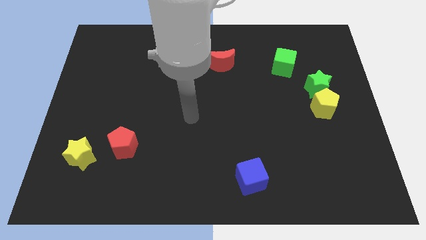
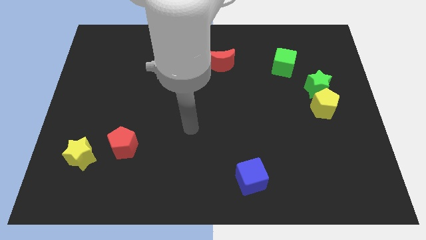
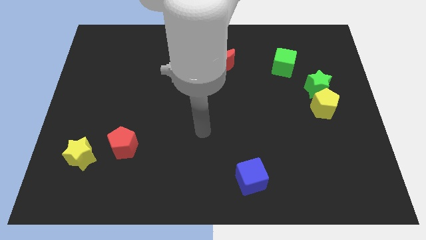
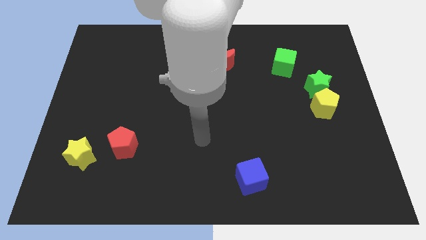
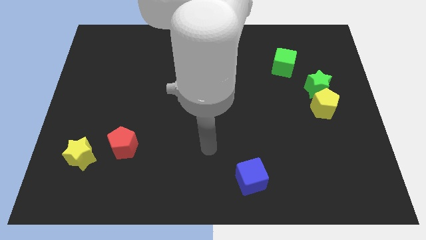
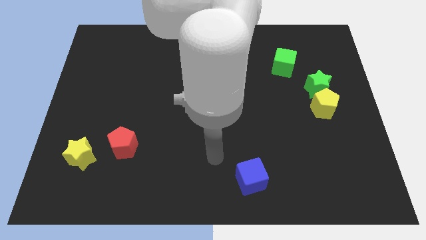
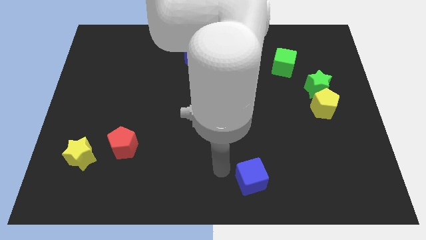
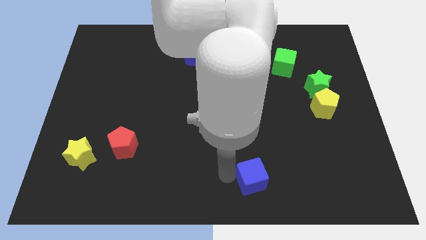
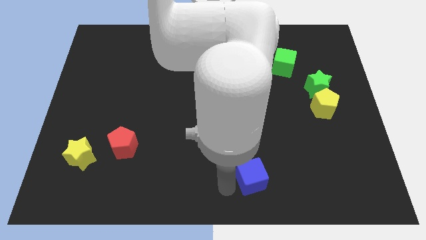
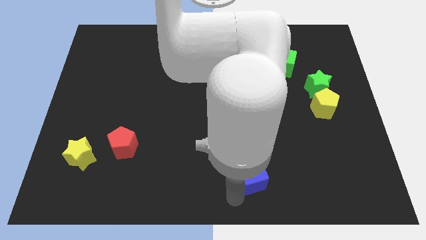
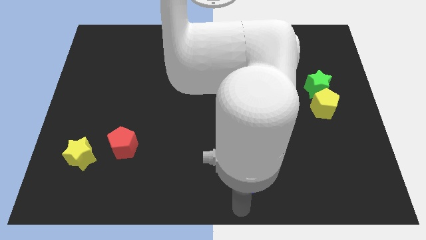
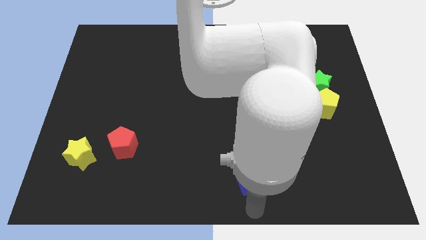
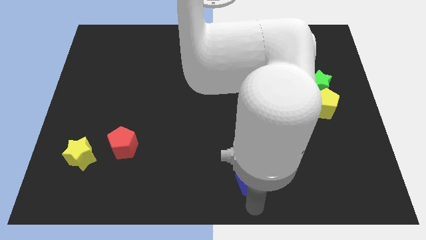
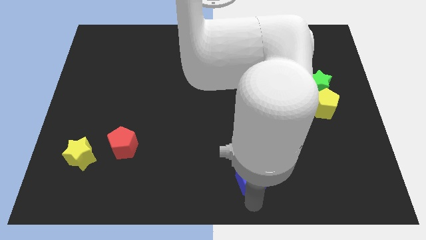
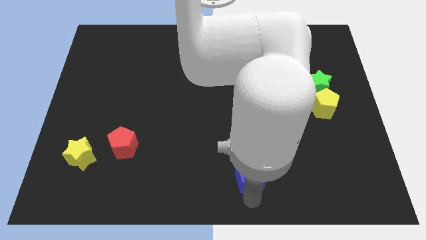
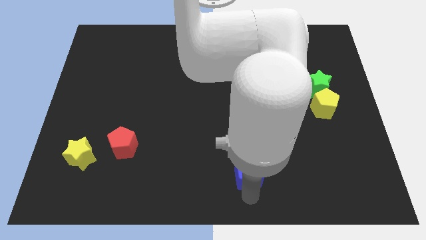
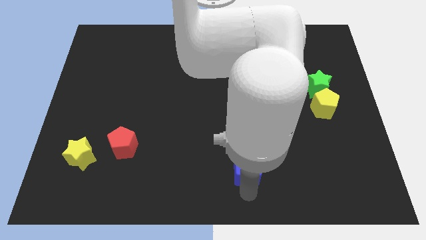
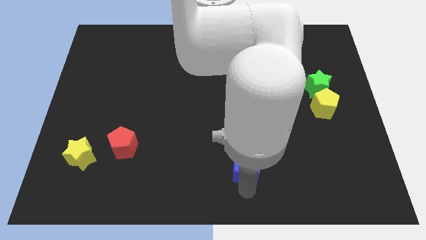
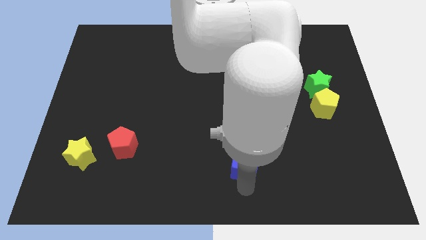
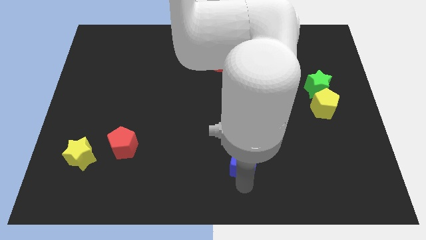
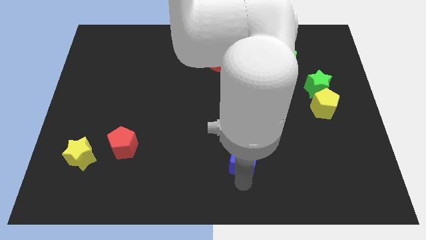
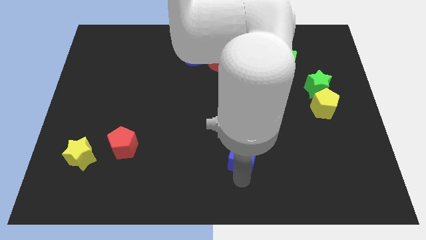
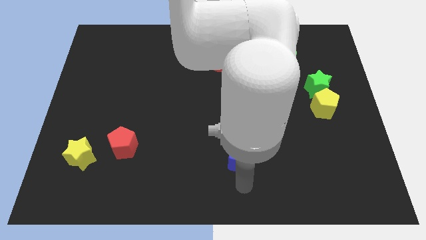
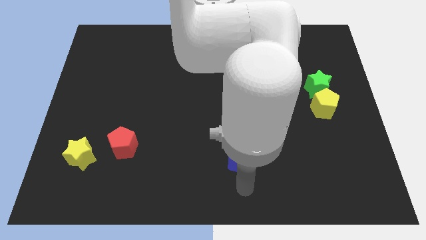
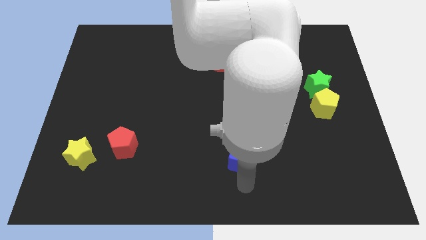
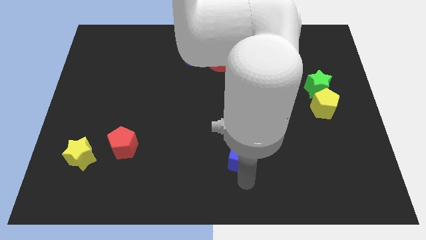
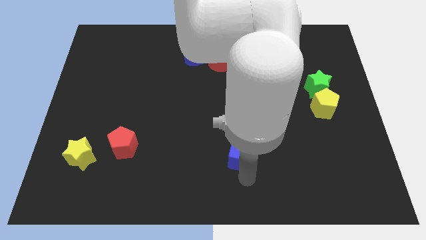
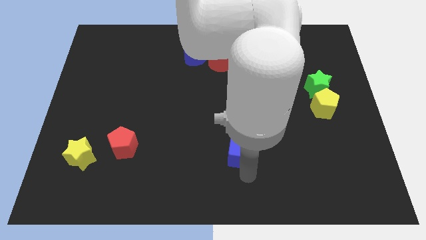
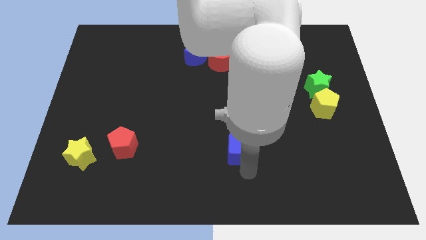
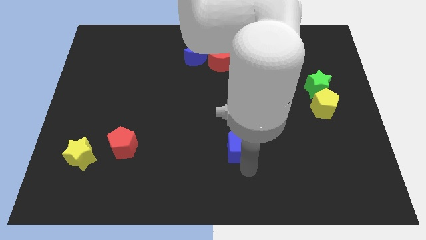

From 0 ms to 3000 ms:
slightly push the blue cube up

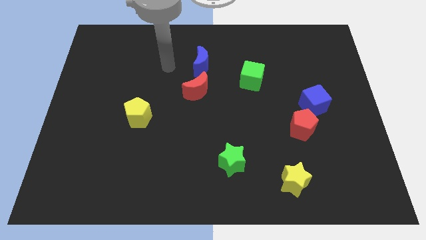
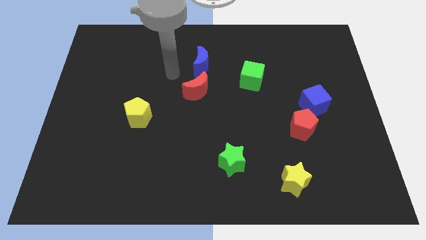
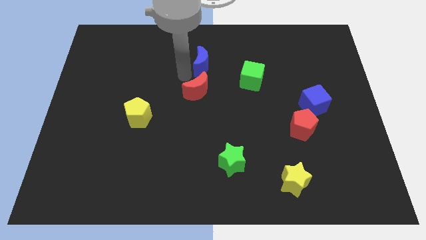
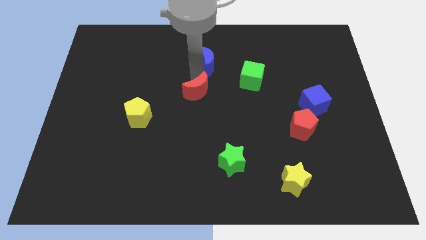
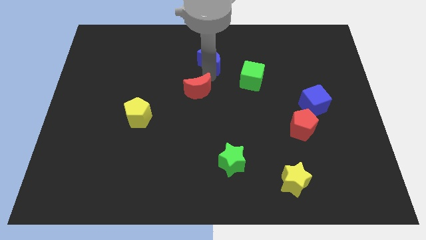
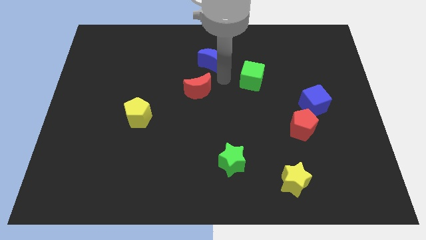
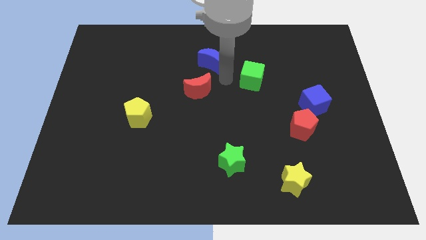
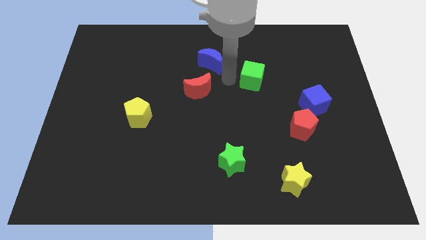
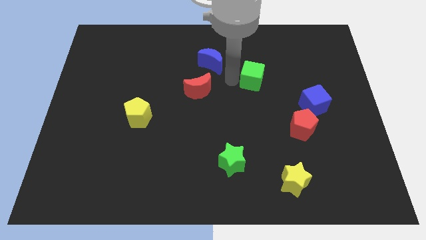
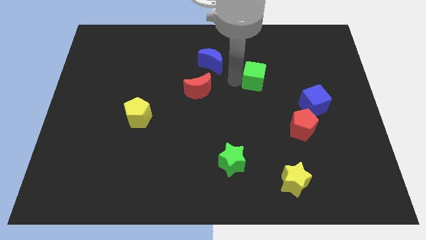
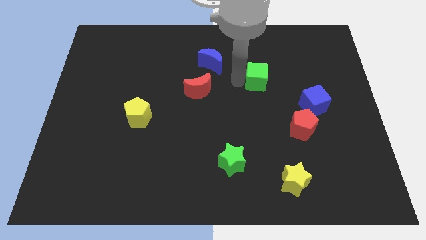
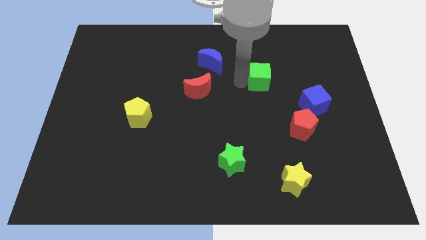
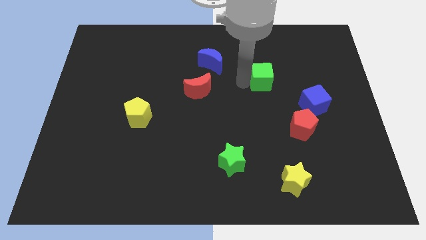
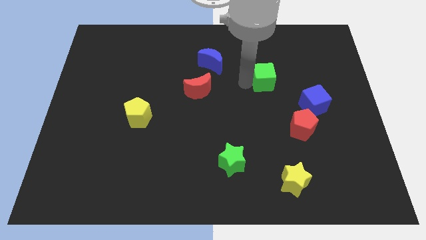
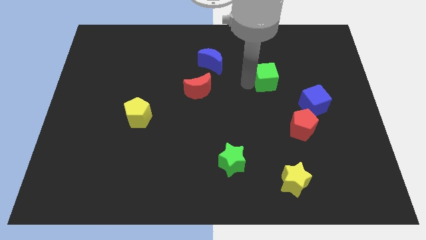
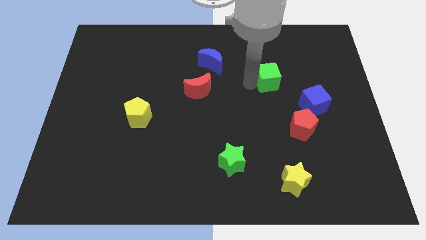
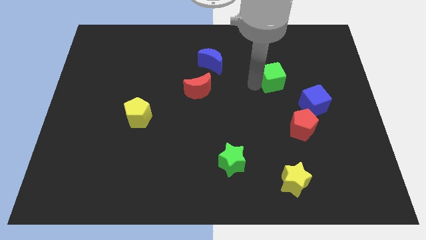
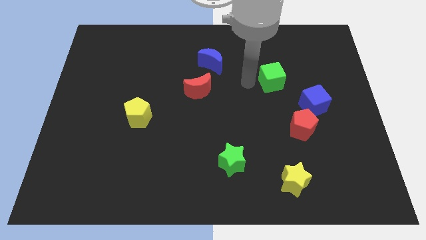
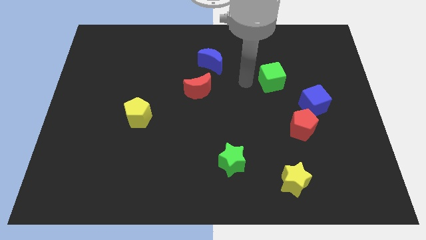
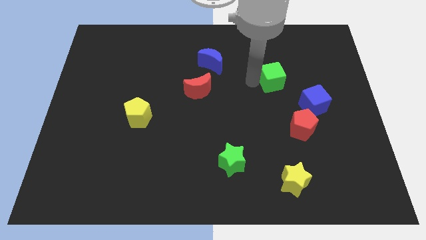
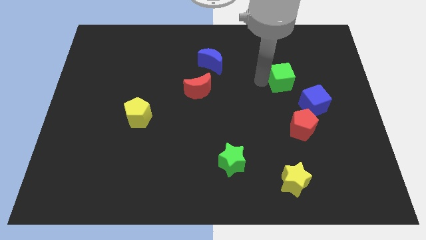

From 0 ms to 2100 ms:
slightly push the green cube right

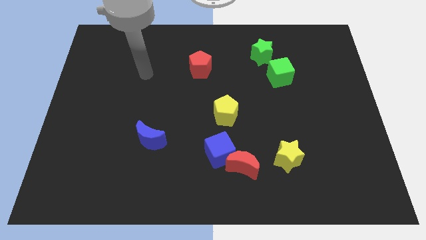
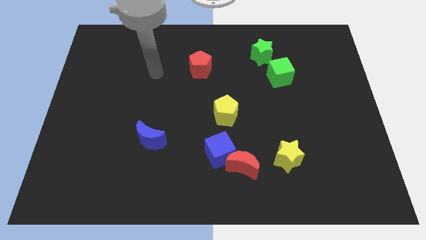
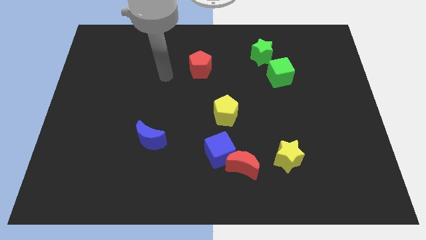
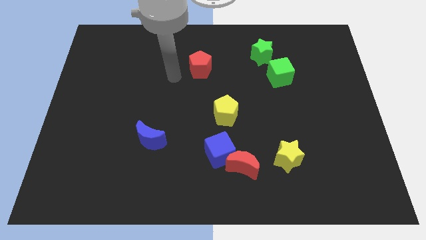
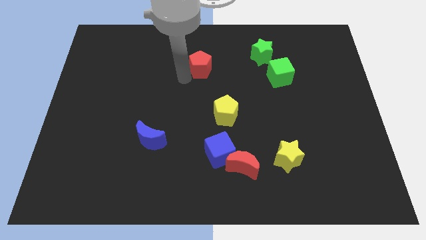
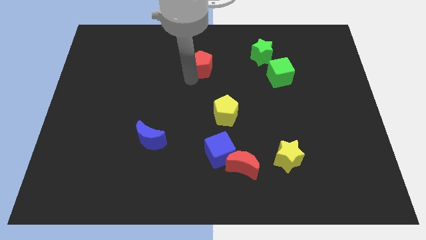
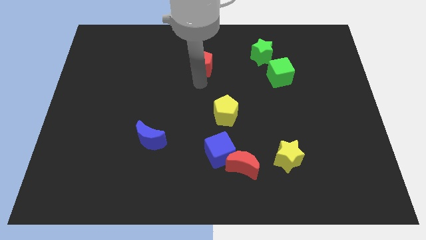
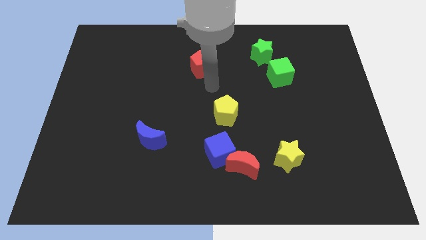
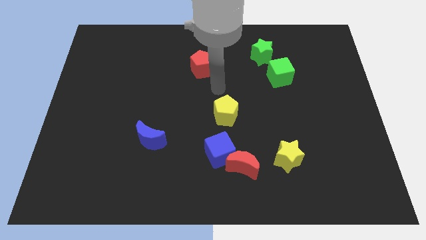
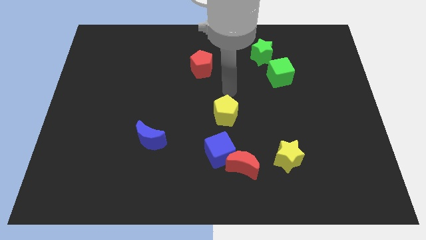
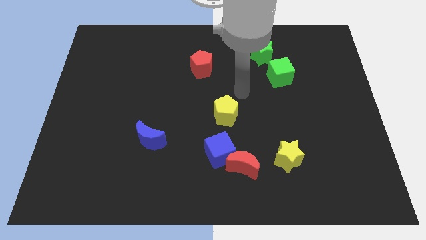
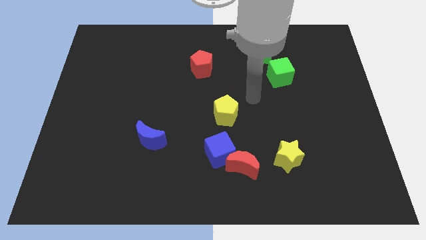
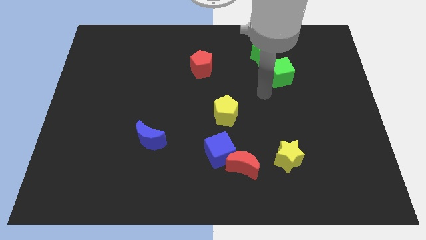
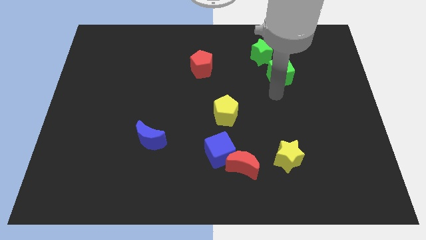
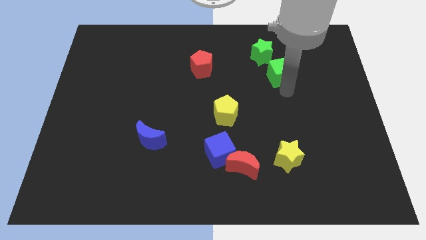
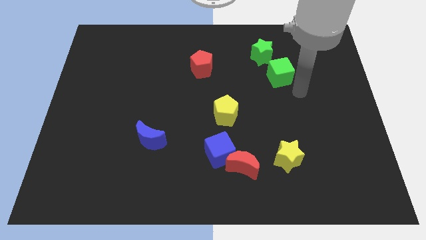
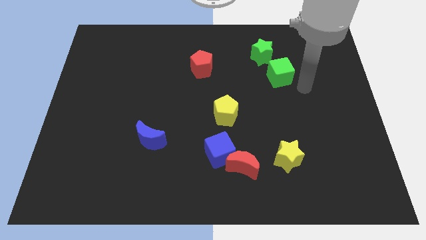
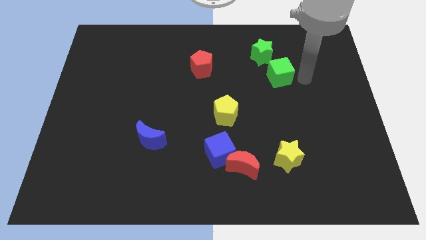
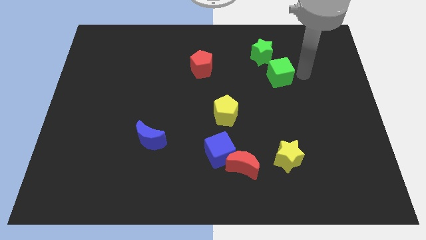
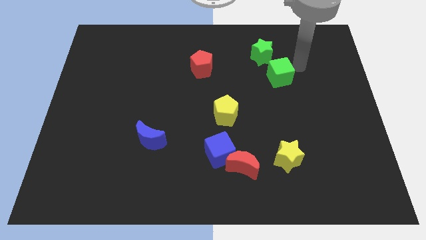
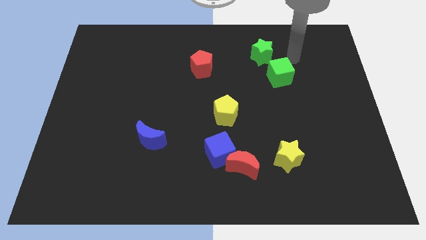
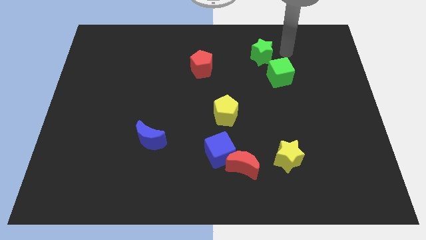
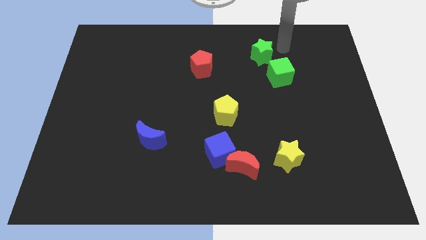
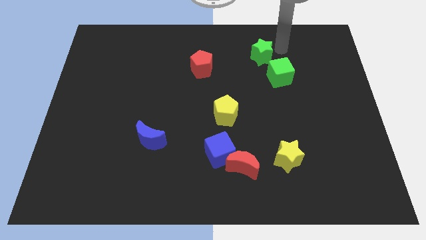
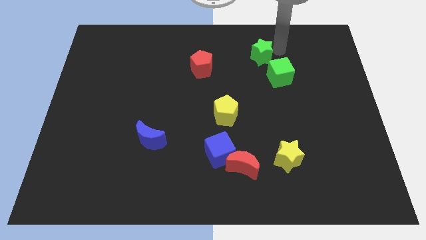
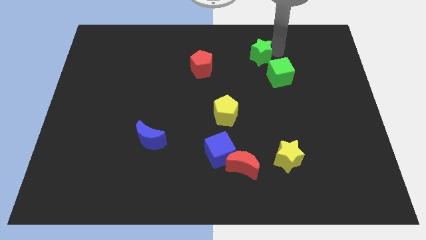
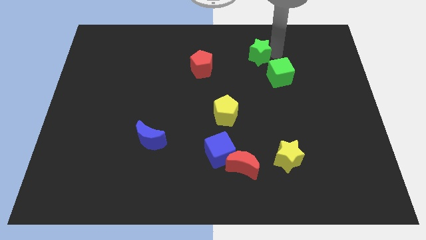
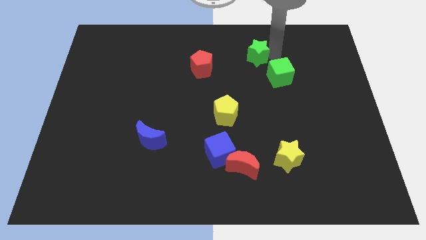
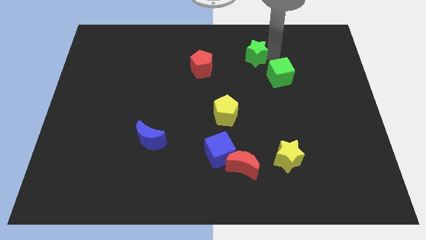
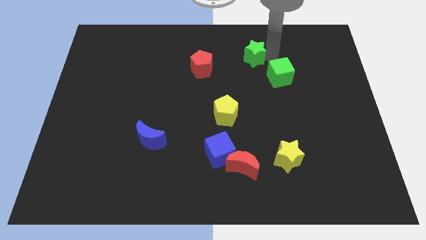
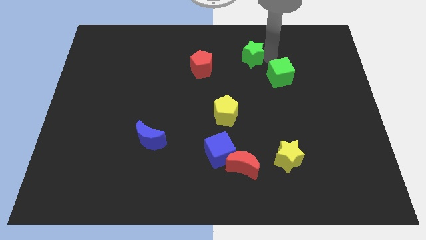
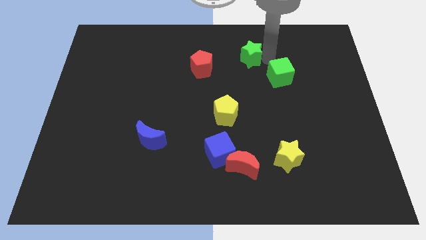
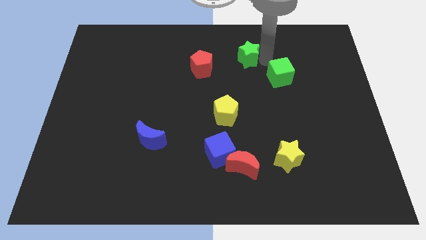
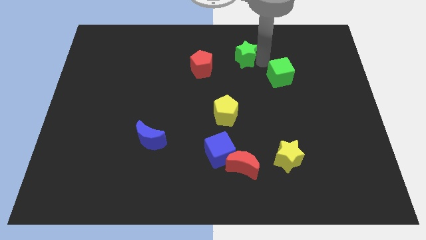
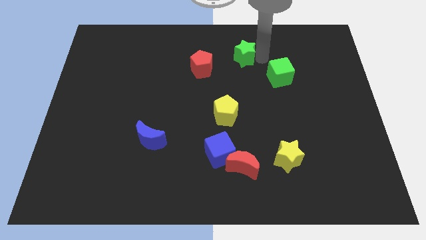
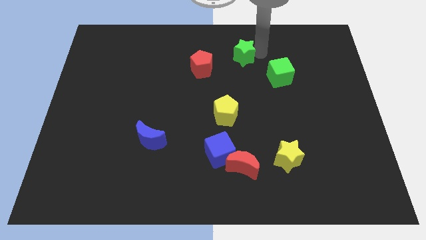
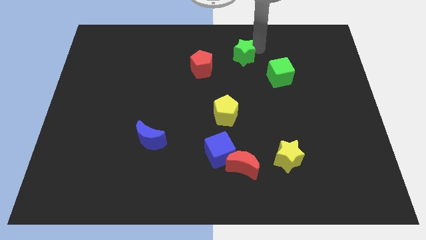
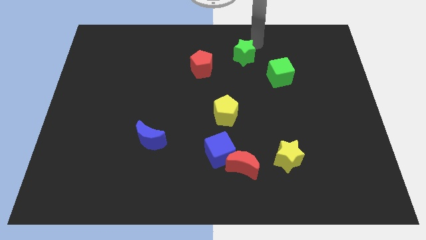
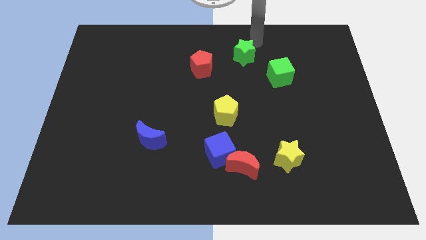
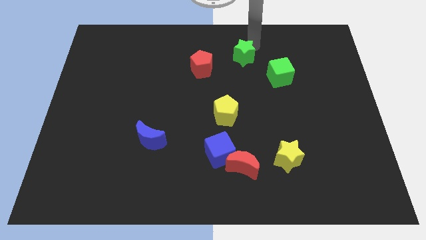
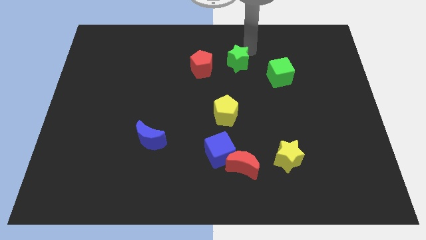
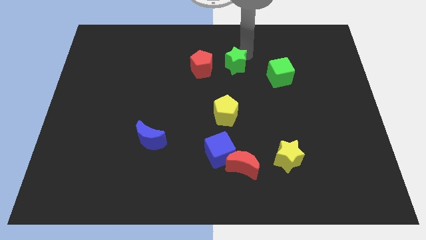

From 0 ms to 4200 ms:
move the green star downwards and then left a little
